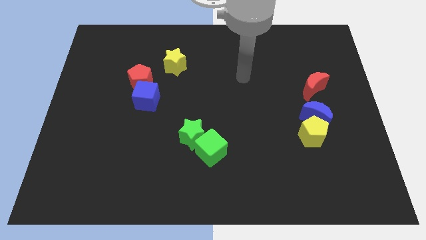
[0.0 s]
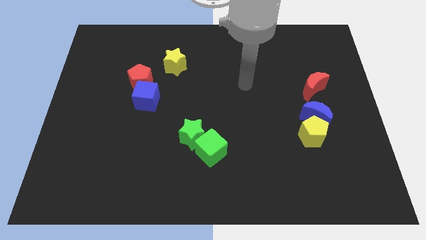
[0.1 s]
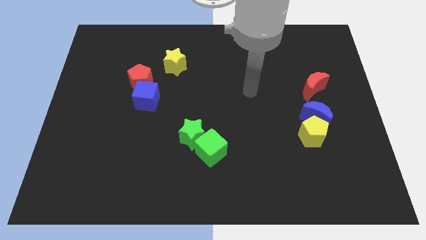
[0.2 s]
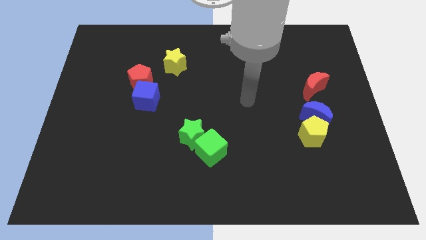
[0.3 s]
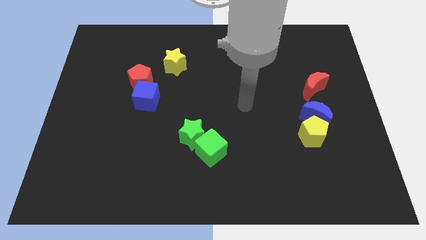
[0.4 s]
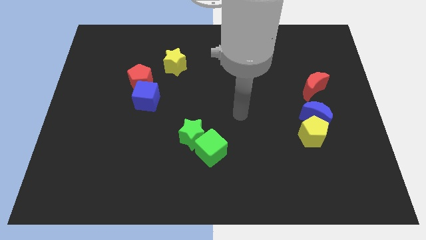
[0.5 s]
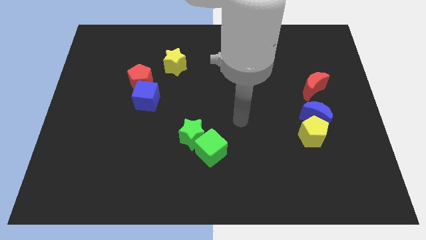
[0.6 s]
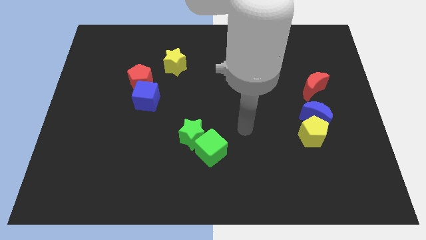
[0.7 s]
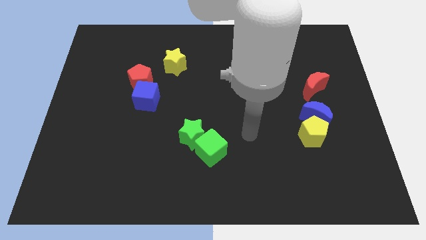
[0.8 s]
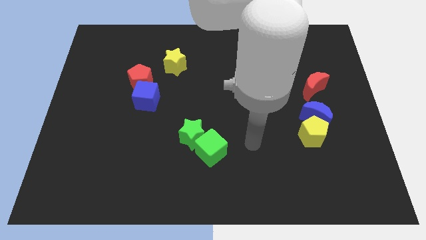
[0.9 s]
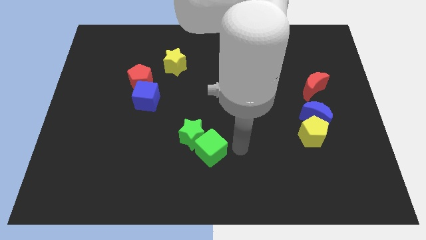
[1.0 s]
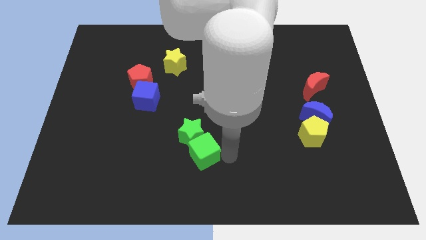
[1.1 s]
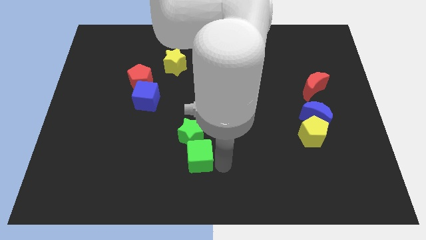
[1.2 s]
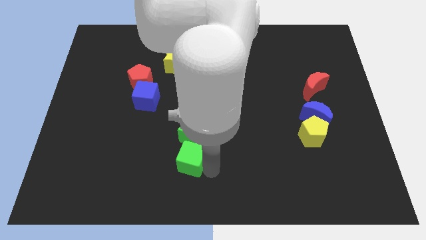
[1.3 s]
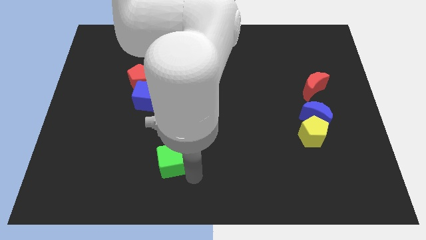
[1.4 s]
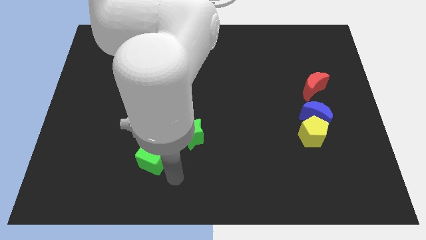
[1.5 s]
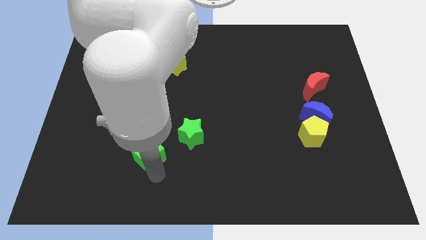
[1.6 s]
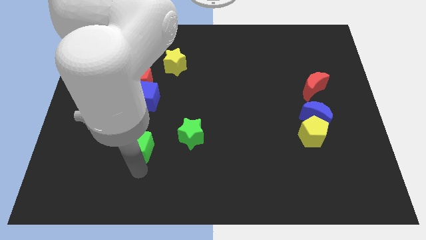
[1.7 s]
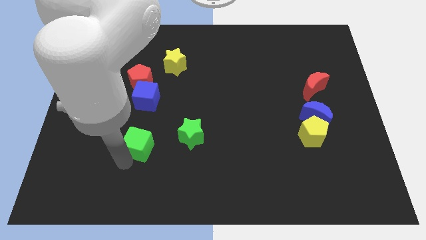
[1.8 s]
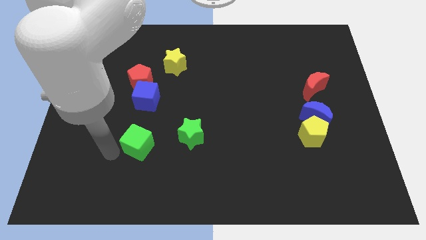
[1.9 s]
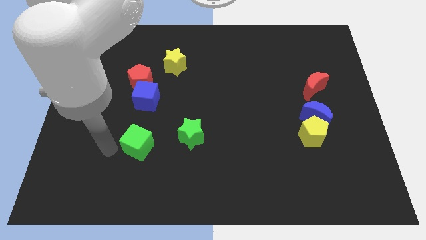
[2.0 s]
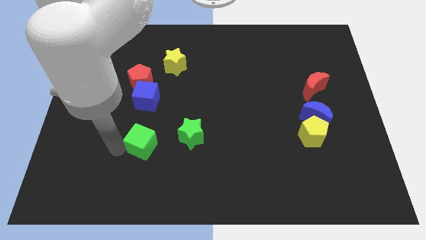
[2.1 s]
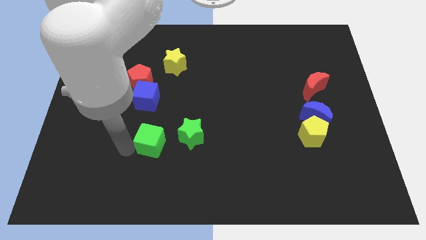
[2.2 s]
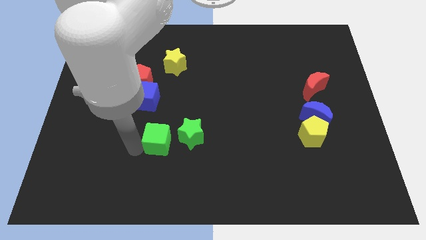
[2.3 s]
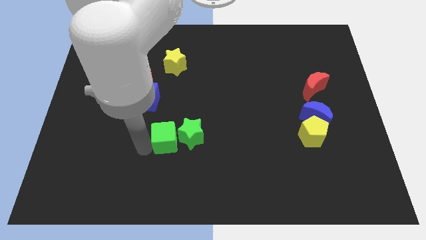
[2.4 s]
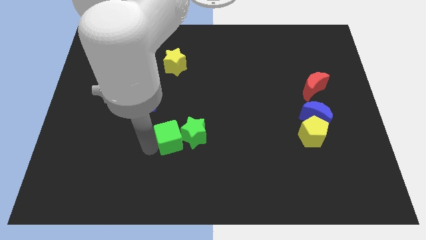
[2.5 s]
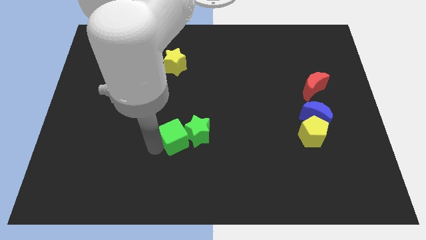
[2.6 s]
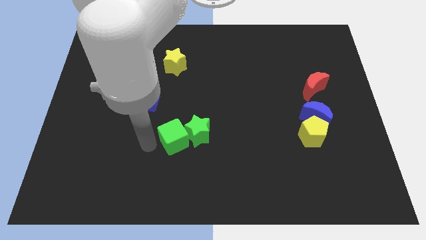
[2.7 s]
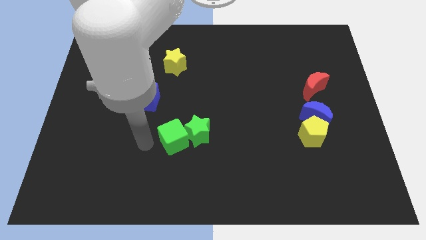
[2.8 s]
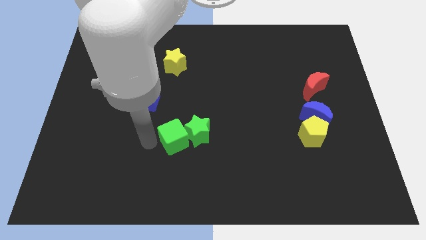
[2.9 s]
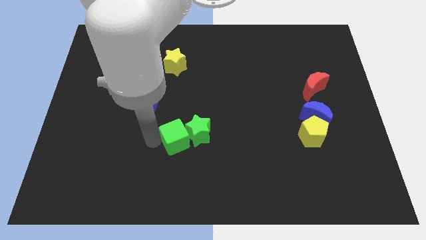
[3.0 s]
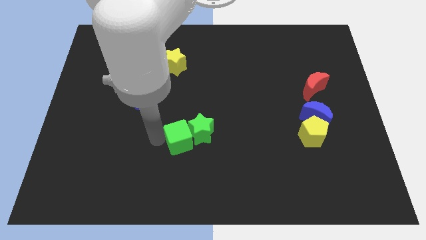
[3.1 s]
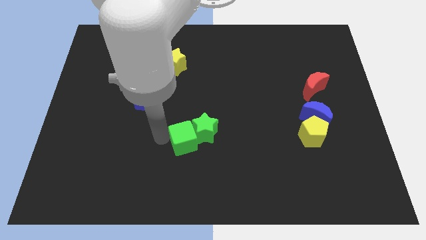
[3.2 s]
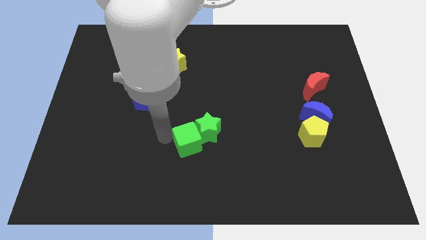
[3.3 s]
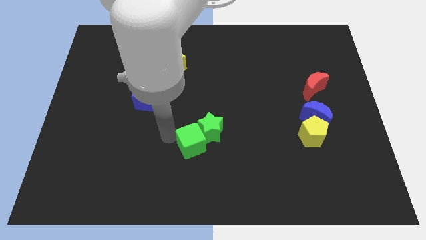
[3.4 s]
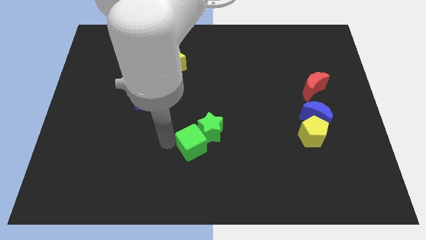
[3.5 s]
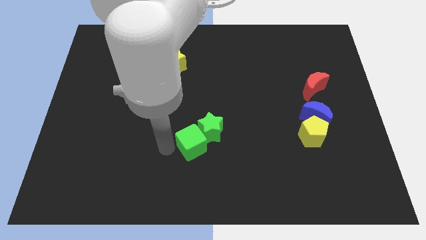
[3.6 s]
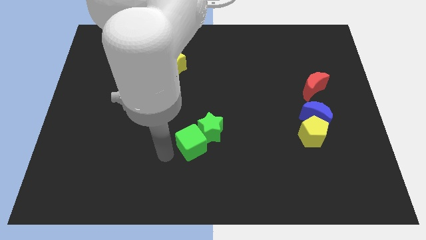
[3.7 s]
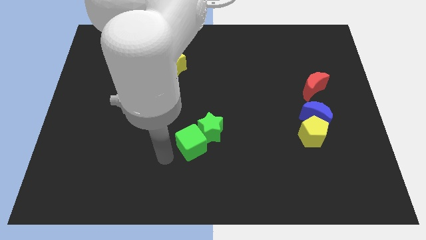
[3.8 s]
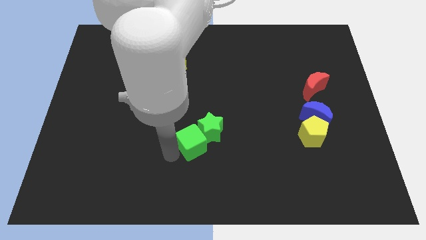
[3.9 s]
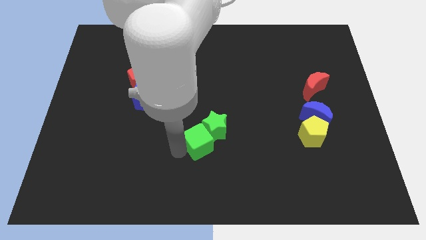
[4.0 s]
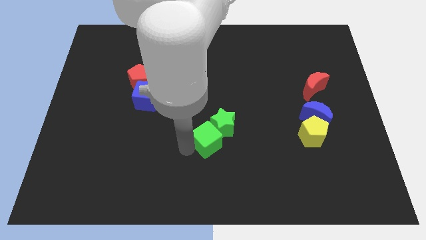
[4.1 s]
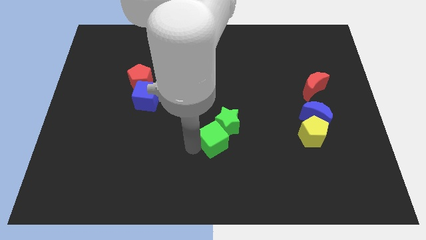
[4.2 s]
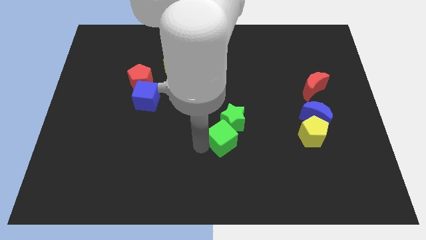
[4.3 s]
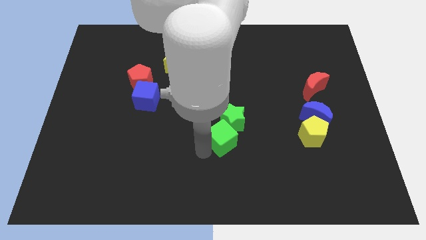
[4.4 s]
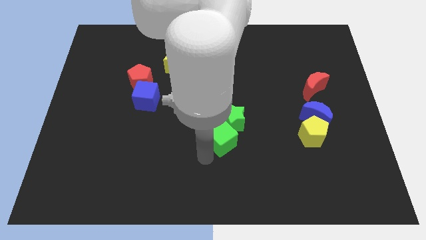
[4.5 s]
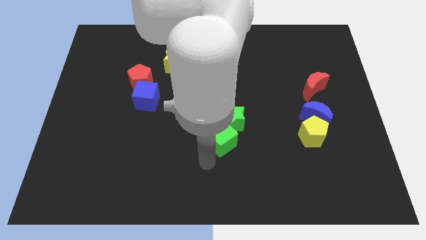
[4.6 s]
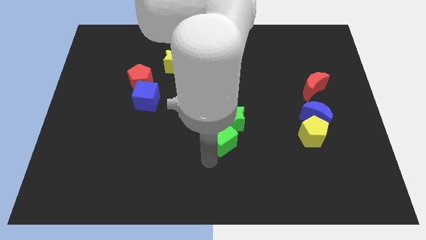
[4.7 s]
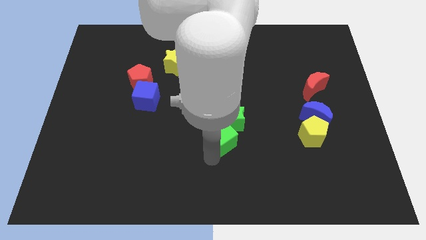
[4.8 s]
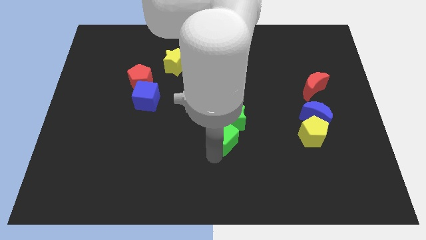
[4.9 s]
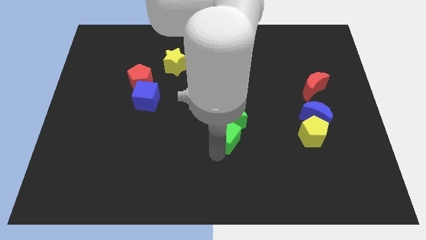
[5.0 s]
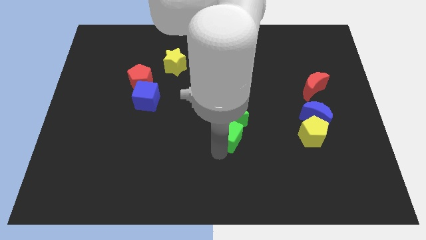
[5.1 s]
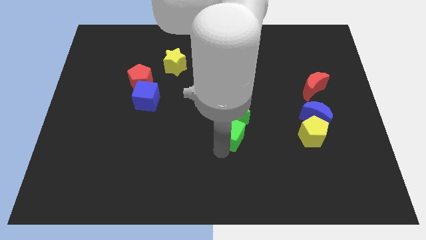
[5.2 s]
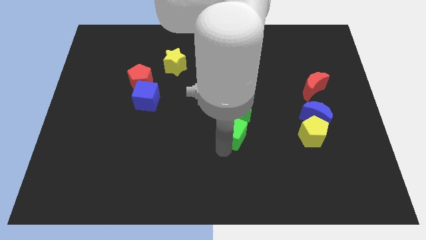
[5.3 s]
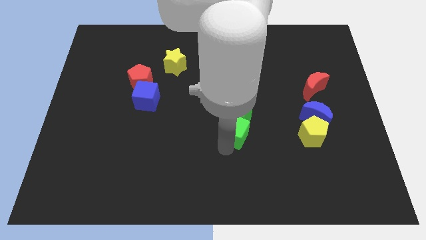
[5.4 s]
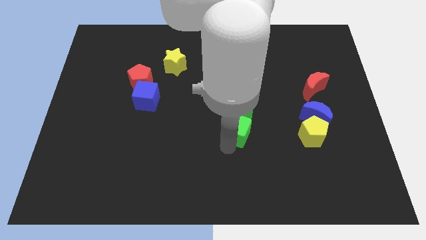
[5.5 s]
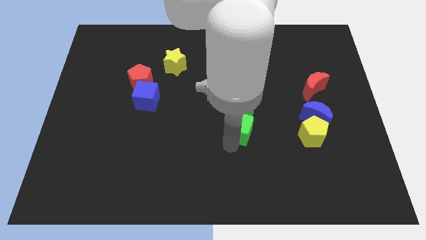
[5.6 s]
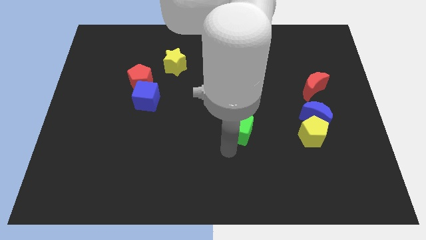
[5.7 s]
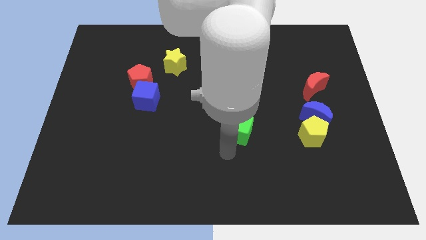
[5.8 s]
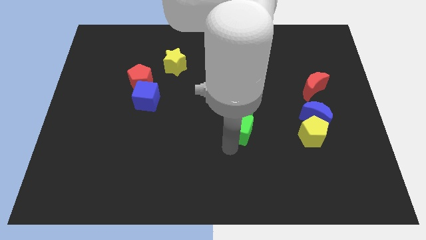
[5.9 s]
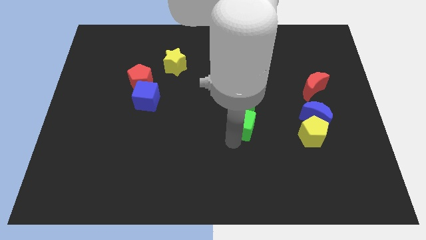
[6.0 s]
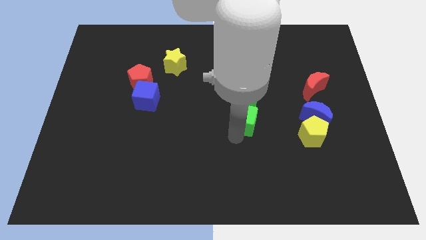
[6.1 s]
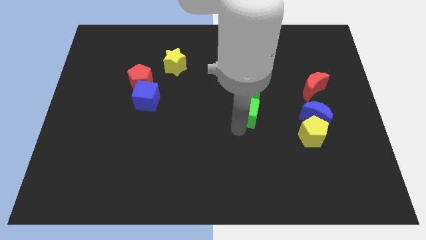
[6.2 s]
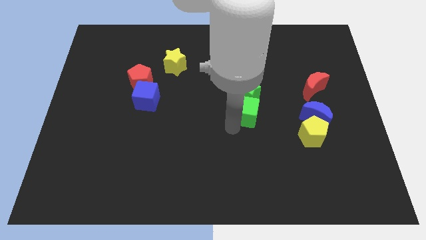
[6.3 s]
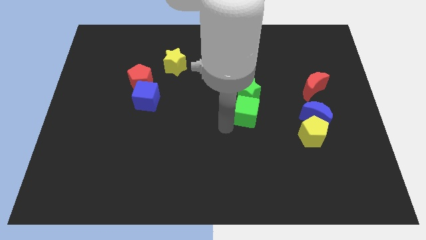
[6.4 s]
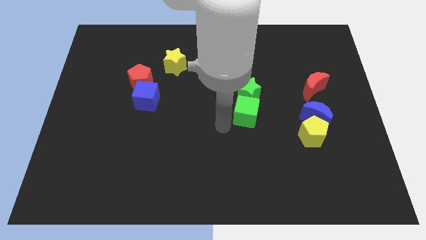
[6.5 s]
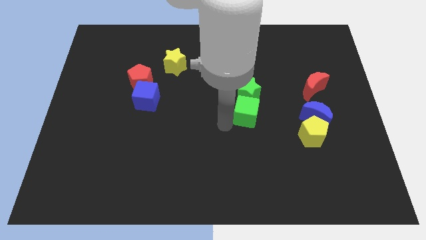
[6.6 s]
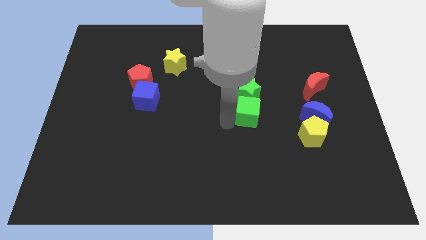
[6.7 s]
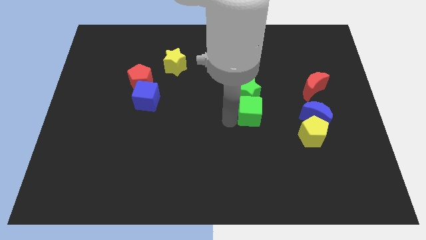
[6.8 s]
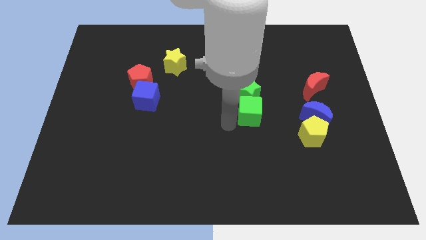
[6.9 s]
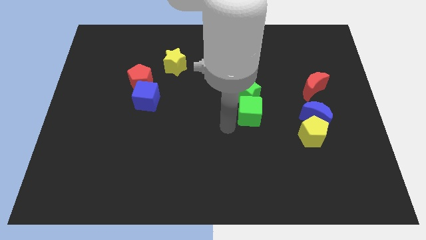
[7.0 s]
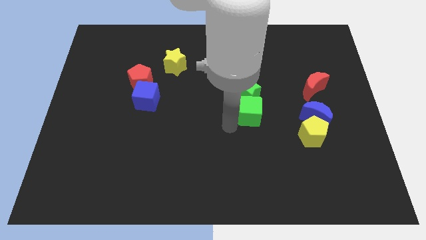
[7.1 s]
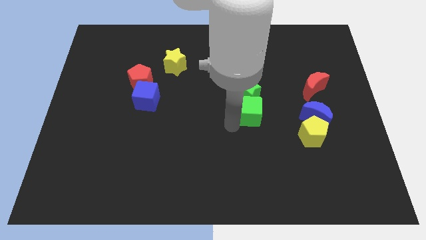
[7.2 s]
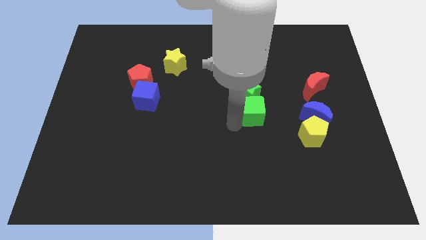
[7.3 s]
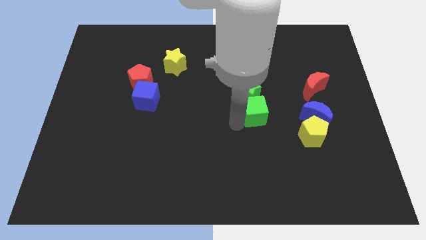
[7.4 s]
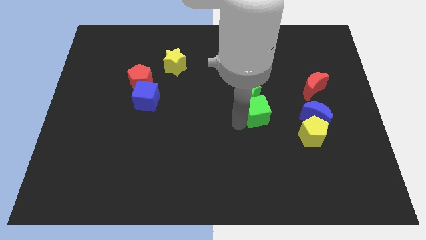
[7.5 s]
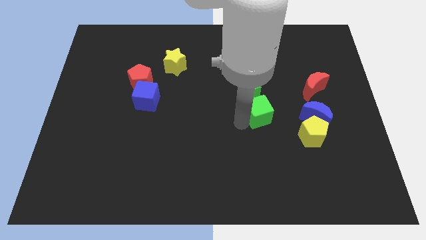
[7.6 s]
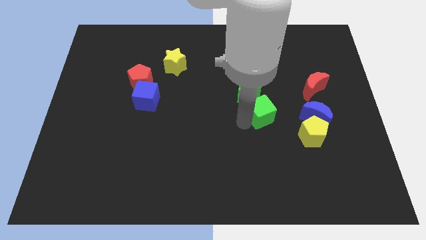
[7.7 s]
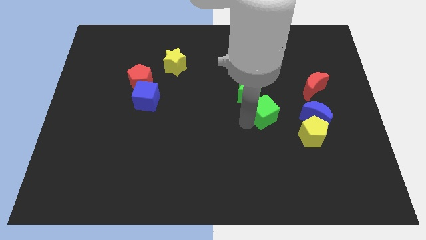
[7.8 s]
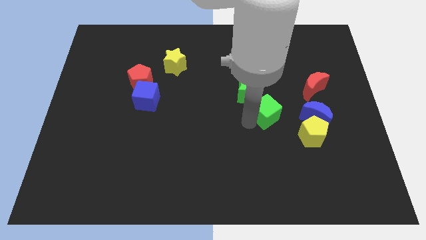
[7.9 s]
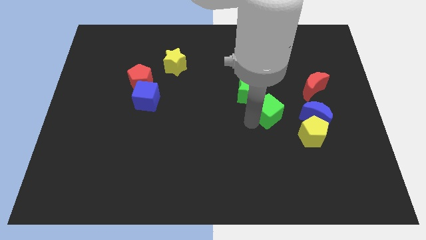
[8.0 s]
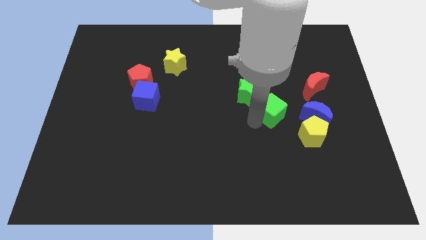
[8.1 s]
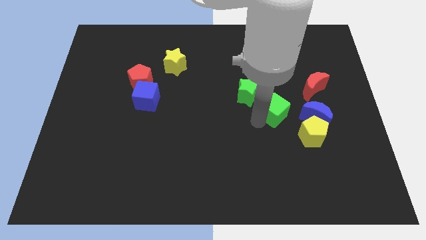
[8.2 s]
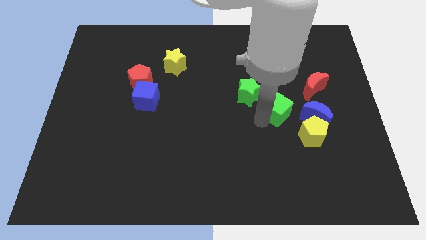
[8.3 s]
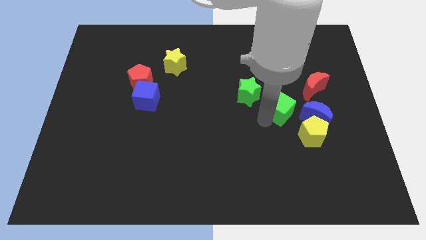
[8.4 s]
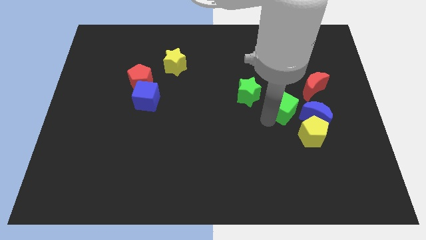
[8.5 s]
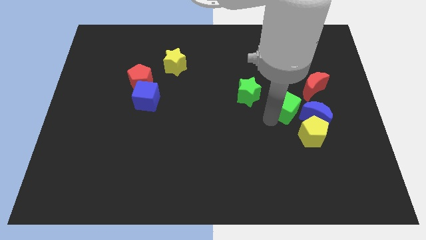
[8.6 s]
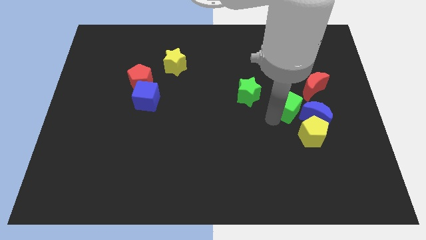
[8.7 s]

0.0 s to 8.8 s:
push the green cube upwards and then right
